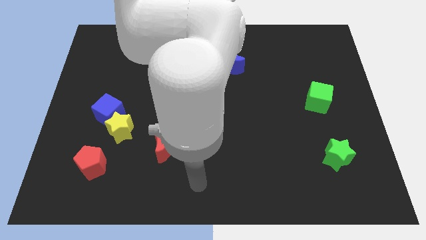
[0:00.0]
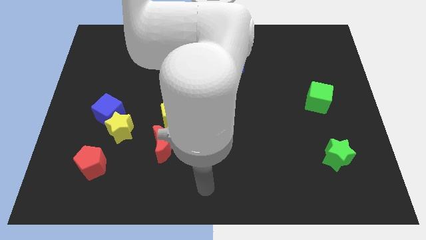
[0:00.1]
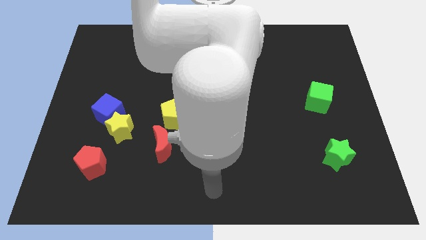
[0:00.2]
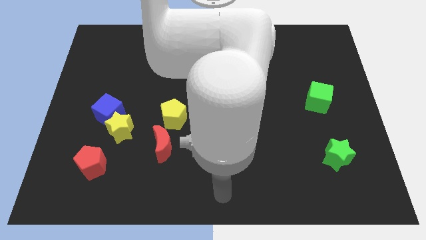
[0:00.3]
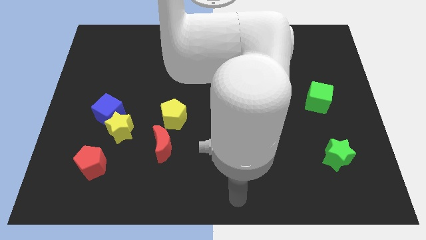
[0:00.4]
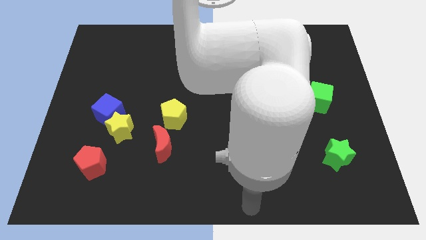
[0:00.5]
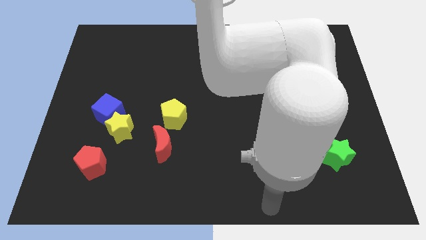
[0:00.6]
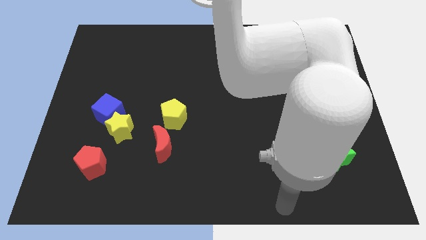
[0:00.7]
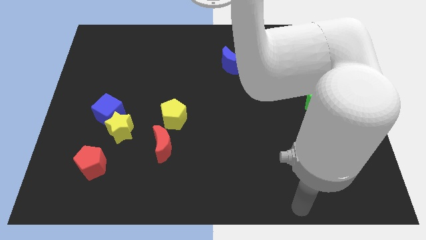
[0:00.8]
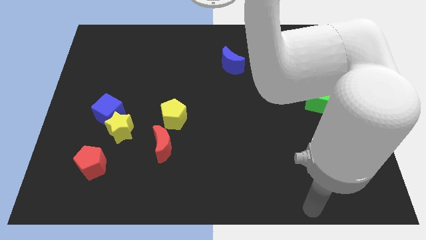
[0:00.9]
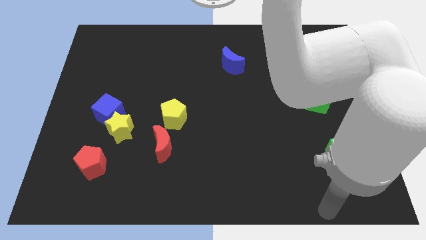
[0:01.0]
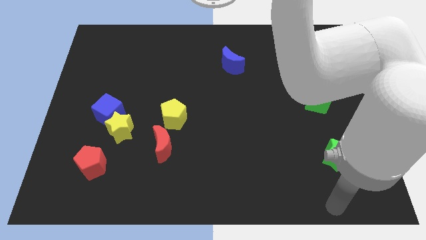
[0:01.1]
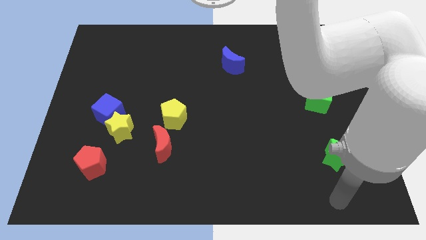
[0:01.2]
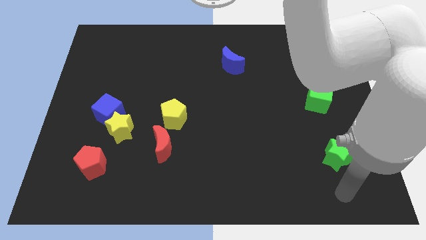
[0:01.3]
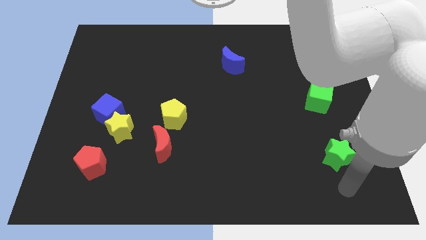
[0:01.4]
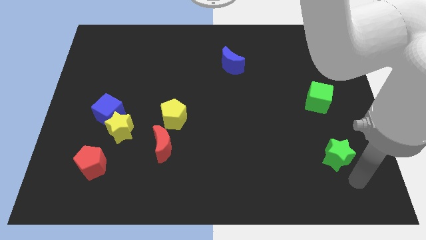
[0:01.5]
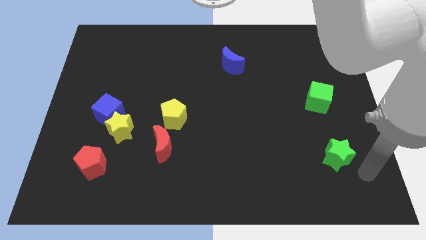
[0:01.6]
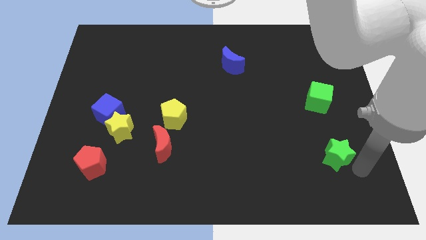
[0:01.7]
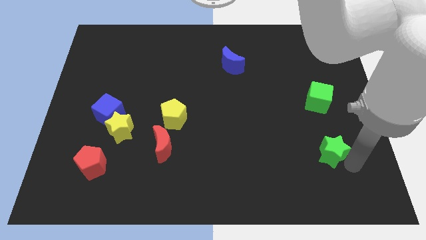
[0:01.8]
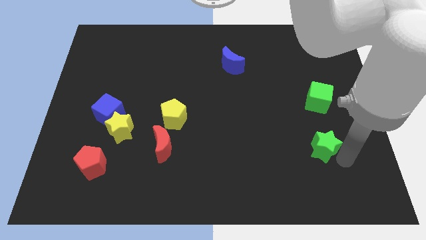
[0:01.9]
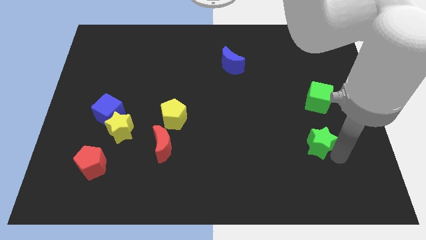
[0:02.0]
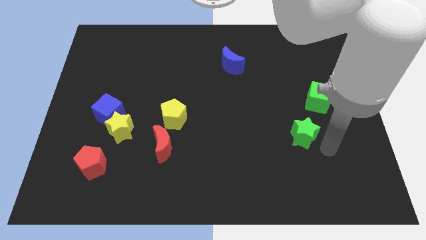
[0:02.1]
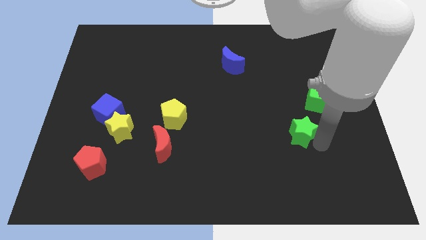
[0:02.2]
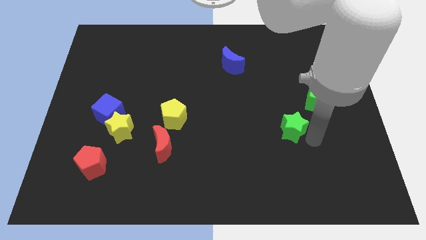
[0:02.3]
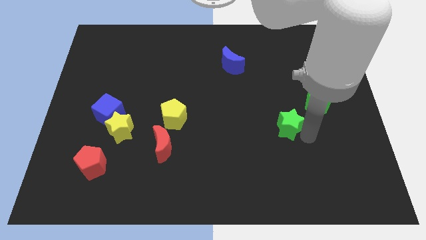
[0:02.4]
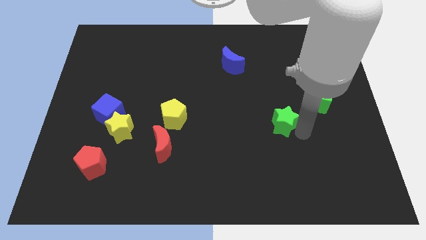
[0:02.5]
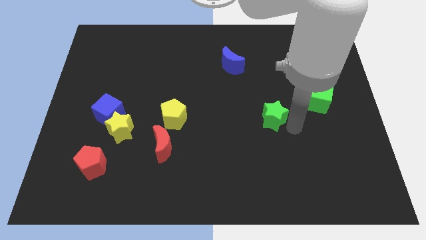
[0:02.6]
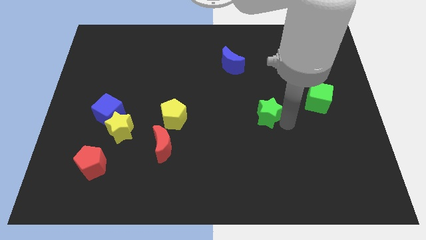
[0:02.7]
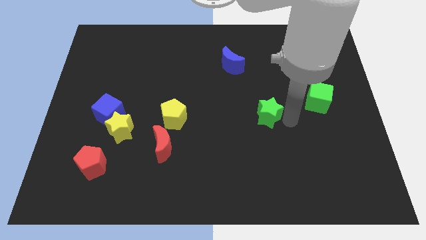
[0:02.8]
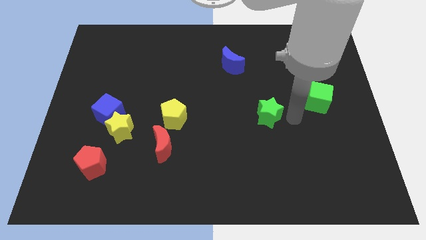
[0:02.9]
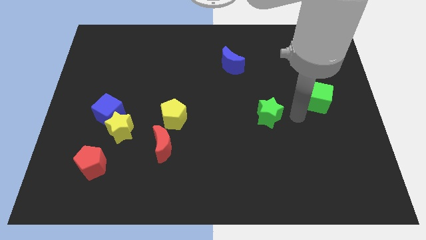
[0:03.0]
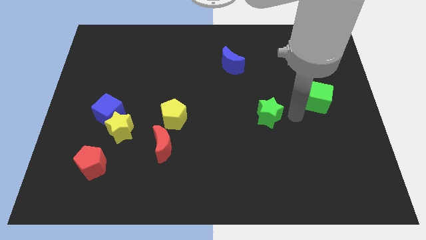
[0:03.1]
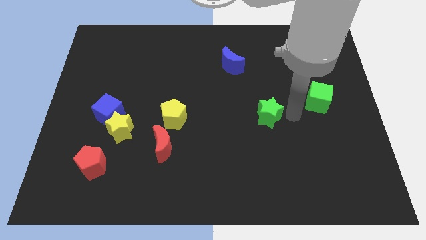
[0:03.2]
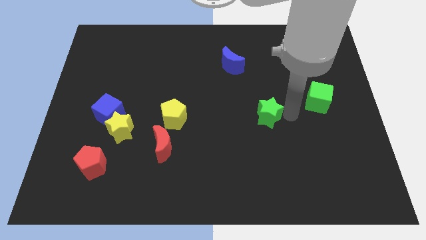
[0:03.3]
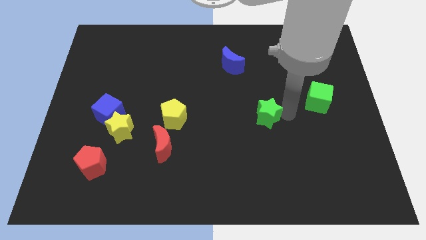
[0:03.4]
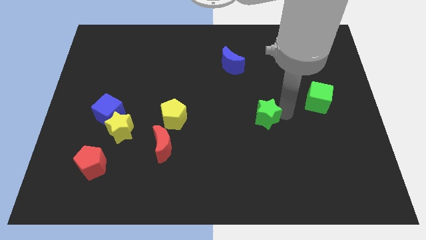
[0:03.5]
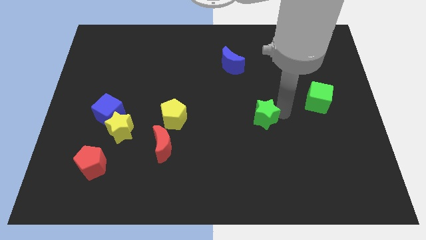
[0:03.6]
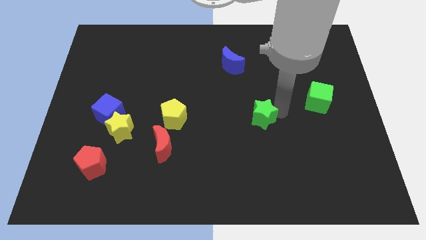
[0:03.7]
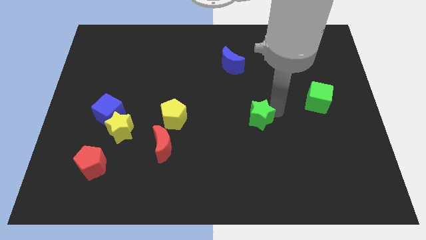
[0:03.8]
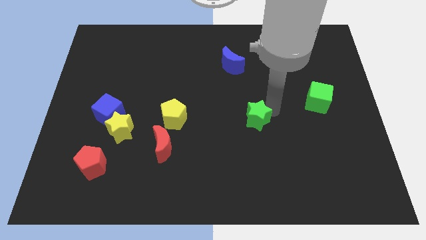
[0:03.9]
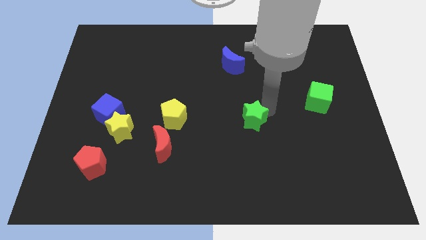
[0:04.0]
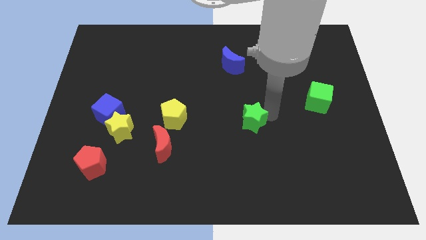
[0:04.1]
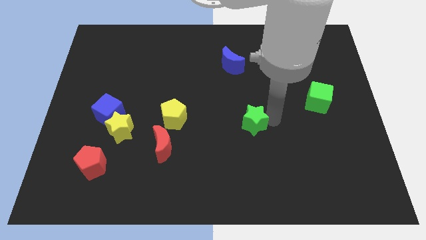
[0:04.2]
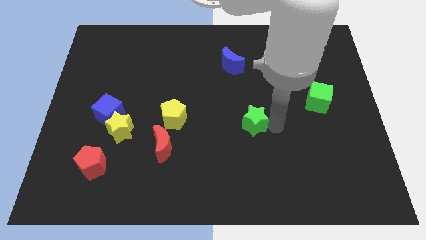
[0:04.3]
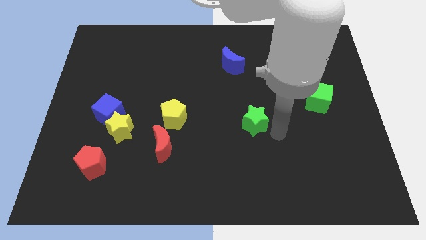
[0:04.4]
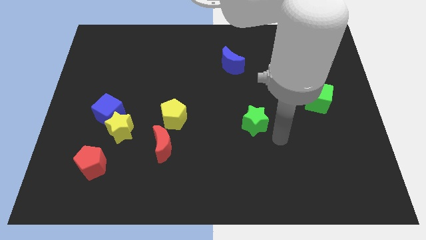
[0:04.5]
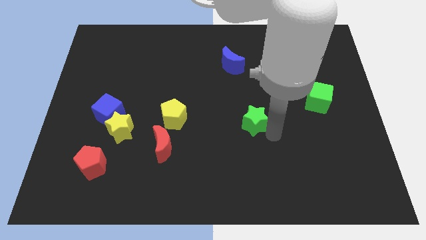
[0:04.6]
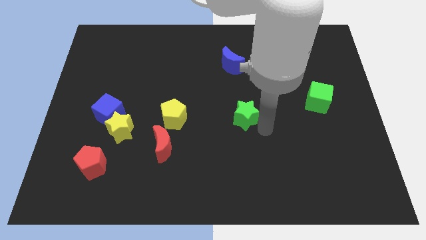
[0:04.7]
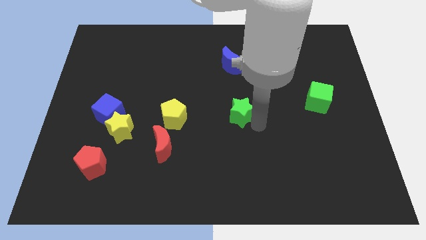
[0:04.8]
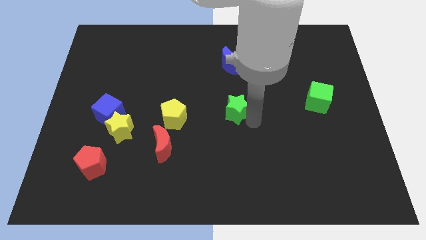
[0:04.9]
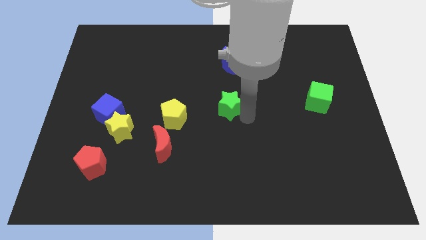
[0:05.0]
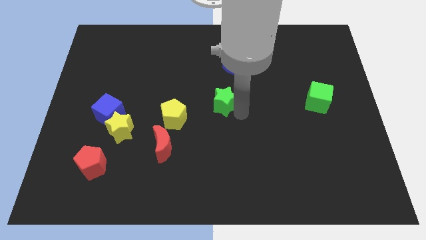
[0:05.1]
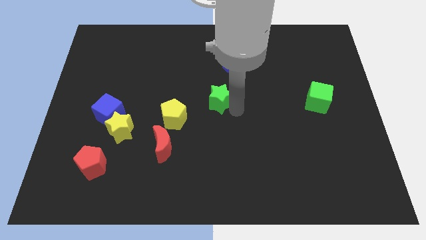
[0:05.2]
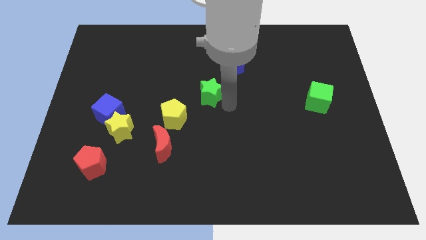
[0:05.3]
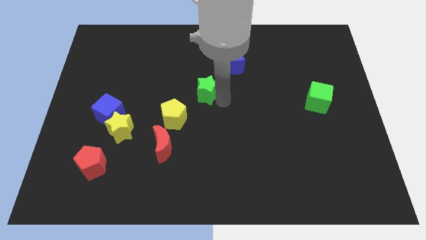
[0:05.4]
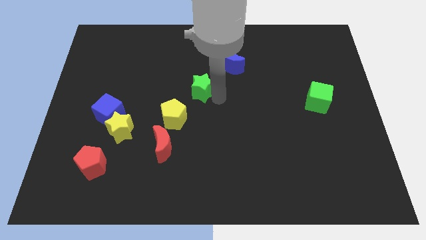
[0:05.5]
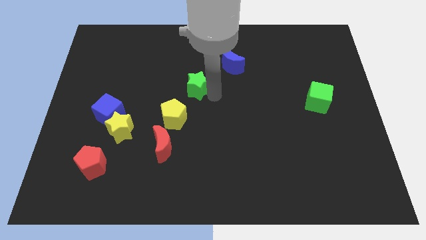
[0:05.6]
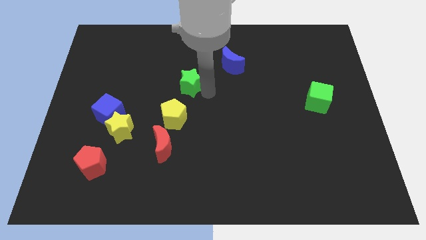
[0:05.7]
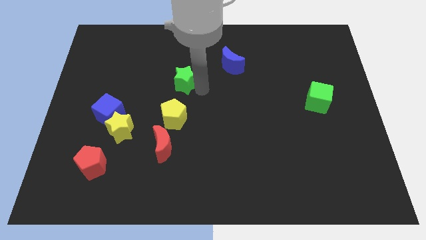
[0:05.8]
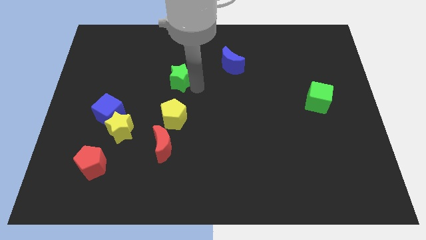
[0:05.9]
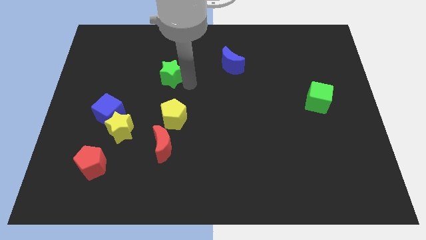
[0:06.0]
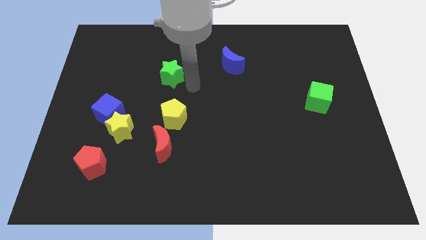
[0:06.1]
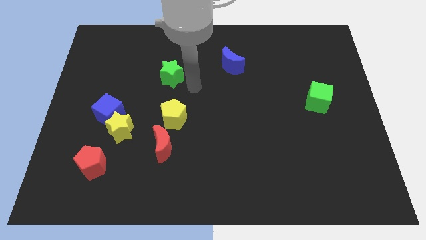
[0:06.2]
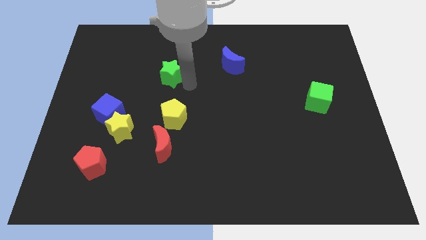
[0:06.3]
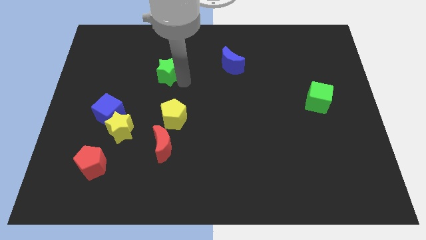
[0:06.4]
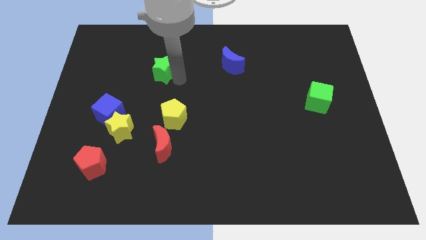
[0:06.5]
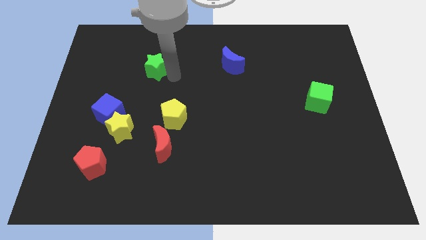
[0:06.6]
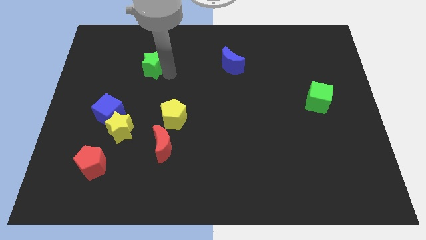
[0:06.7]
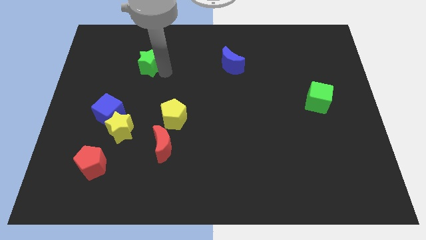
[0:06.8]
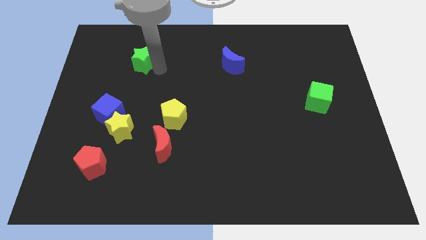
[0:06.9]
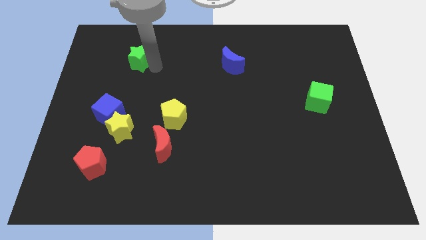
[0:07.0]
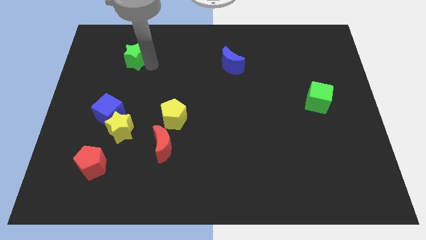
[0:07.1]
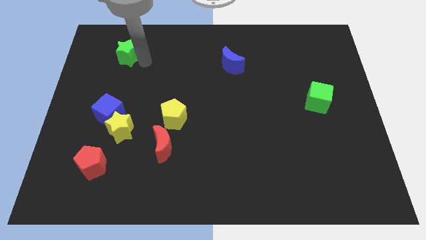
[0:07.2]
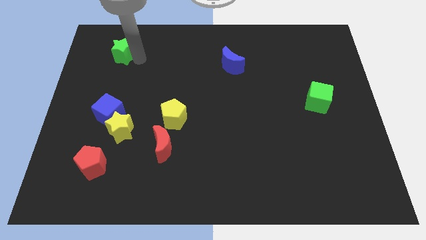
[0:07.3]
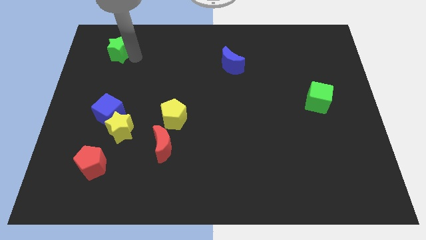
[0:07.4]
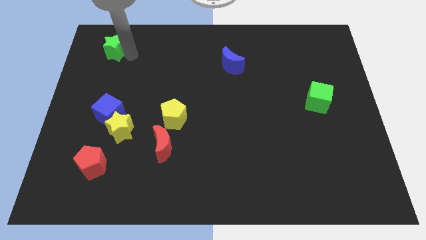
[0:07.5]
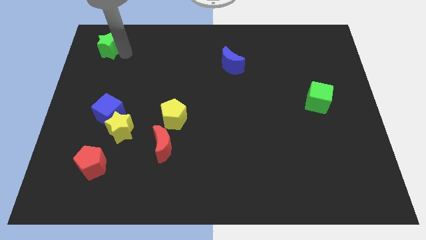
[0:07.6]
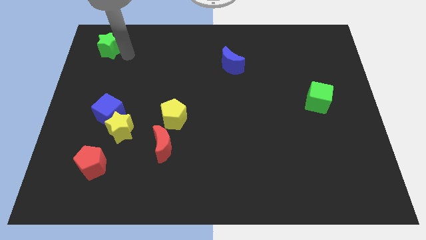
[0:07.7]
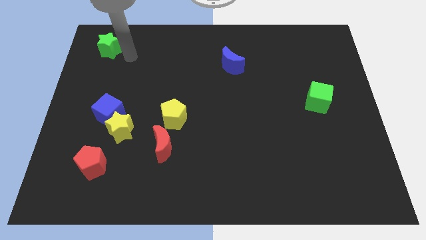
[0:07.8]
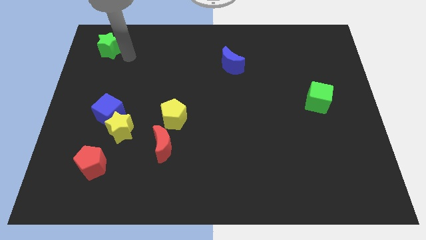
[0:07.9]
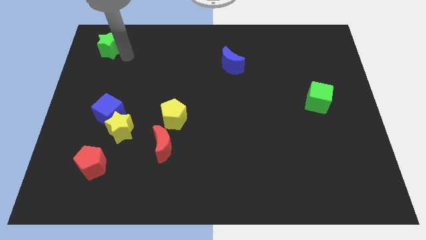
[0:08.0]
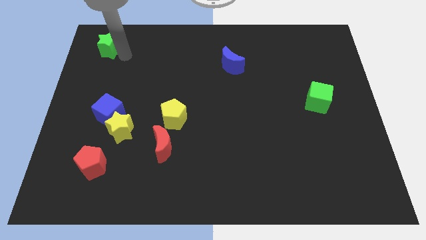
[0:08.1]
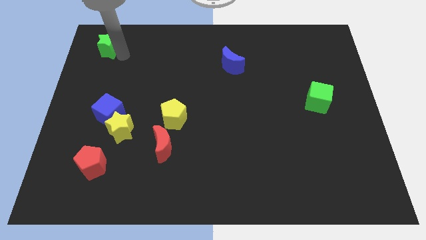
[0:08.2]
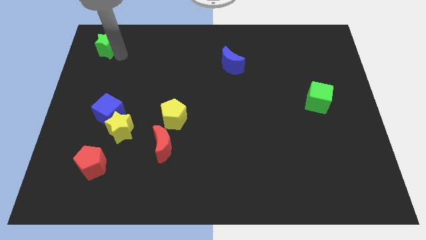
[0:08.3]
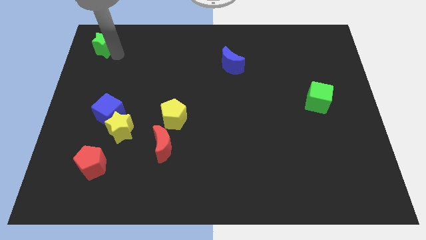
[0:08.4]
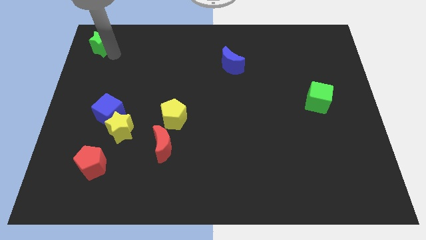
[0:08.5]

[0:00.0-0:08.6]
push the green star to the top left
